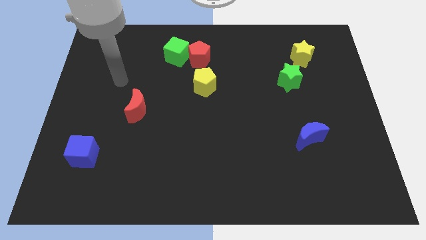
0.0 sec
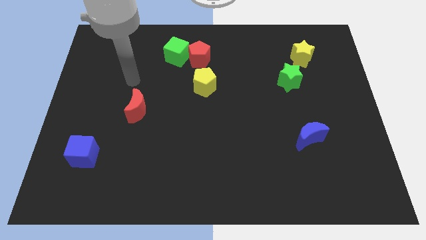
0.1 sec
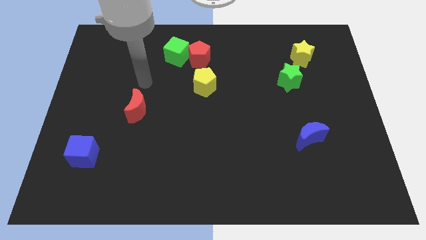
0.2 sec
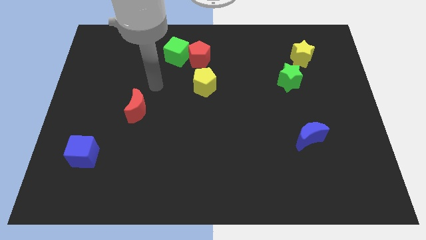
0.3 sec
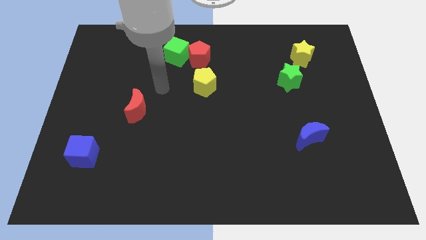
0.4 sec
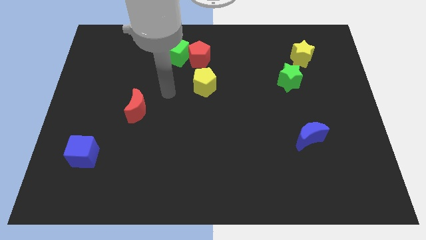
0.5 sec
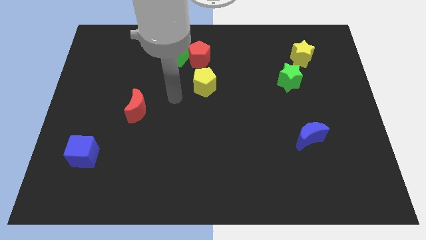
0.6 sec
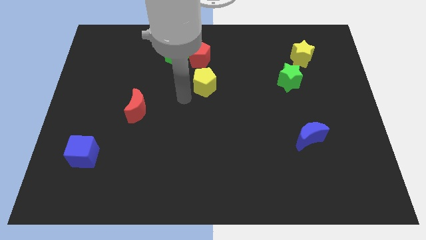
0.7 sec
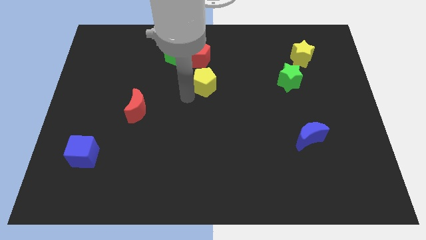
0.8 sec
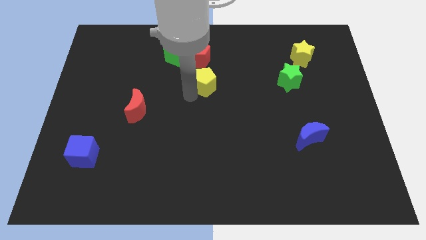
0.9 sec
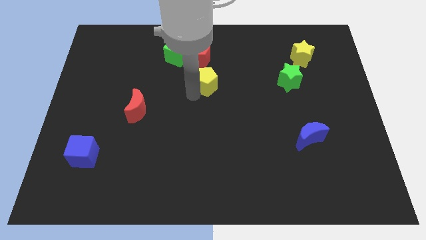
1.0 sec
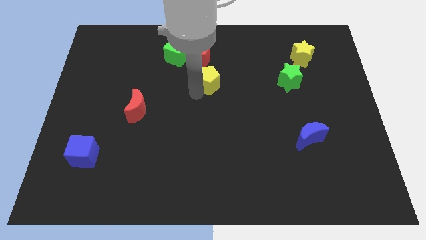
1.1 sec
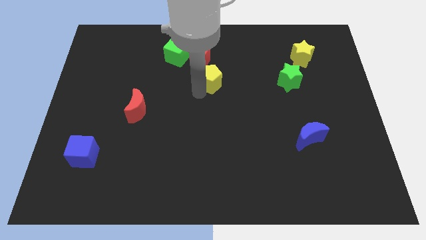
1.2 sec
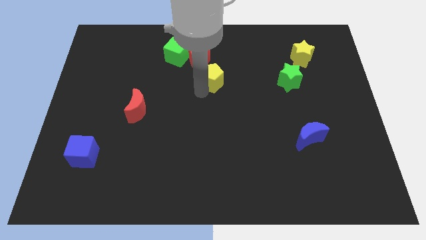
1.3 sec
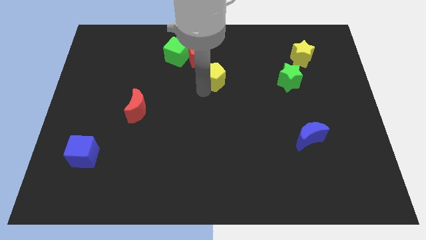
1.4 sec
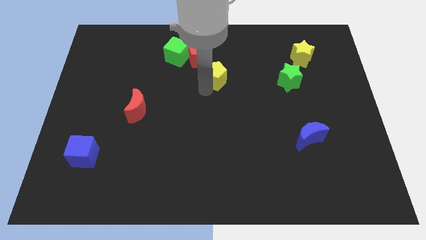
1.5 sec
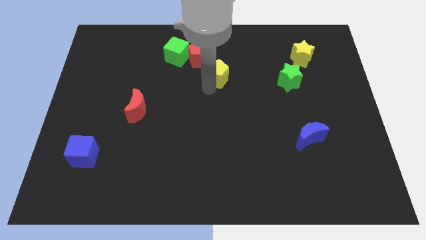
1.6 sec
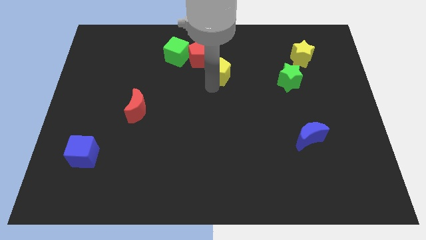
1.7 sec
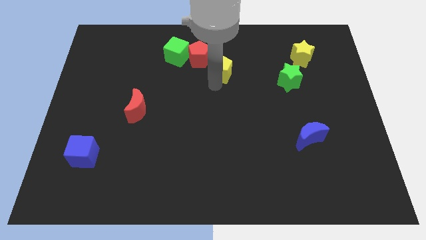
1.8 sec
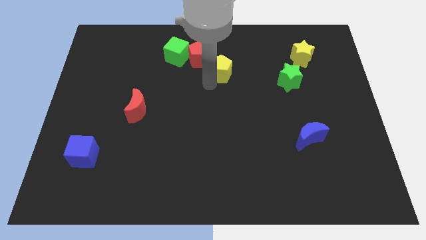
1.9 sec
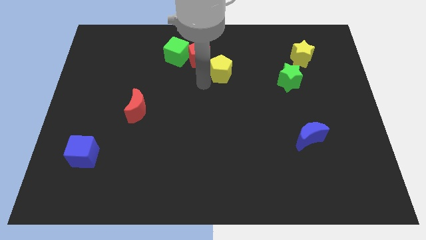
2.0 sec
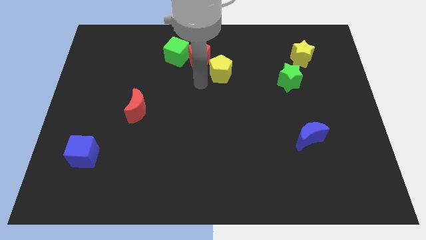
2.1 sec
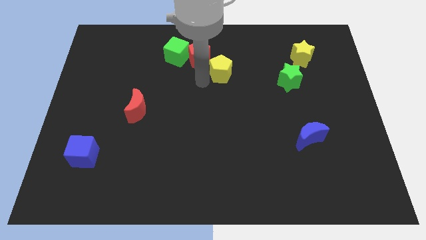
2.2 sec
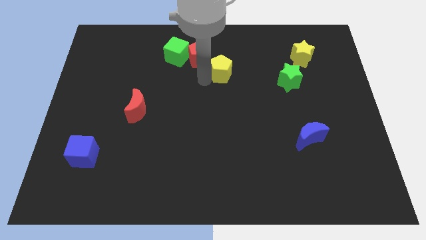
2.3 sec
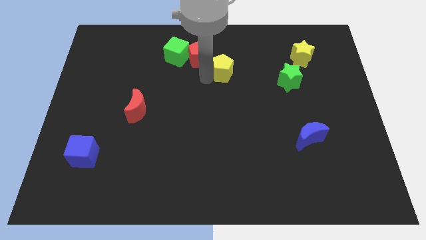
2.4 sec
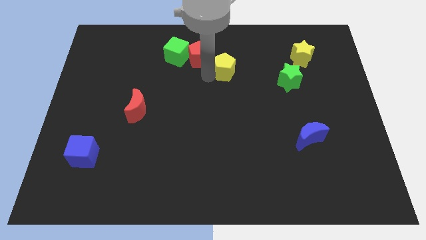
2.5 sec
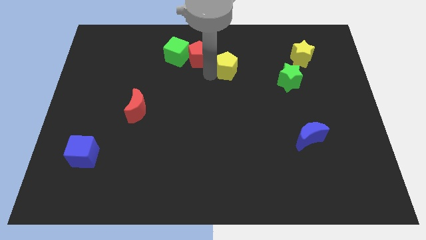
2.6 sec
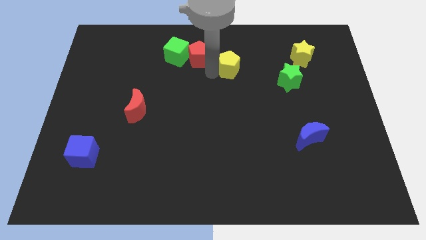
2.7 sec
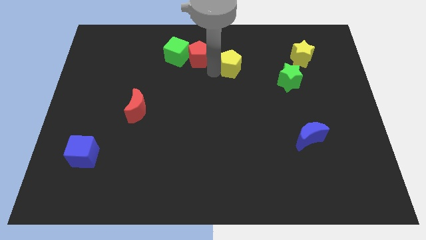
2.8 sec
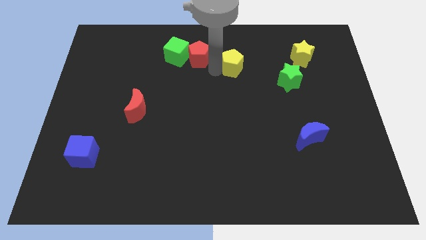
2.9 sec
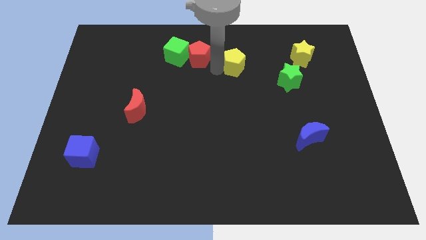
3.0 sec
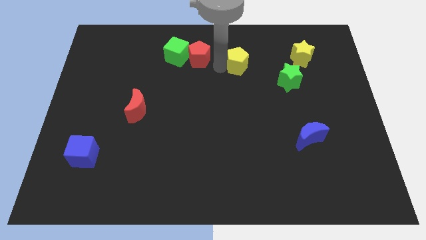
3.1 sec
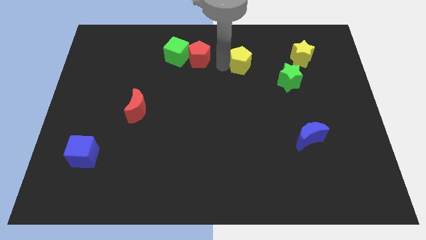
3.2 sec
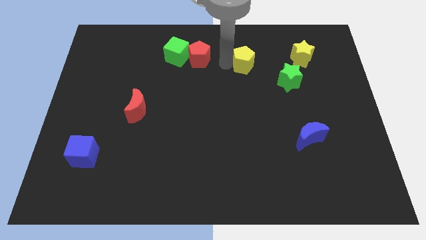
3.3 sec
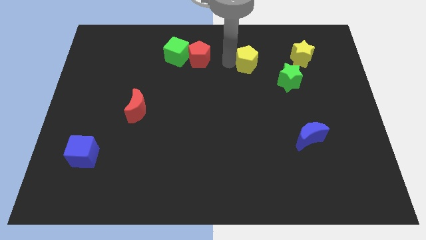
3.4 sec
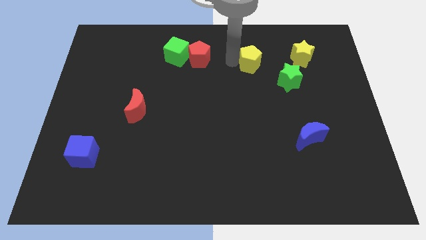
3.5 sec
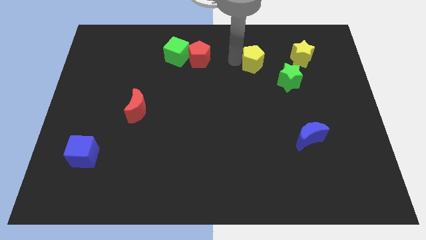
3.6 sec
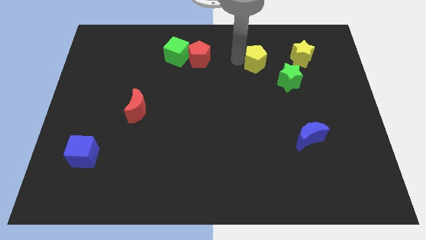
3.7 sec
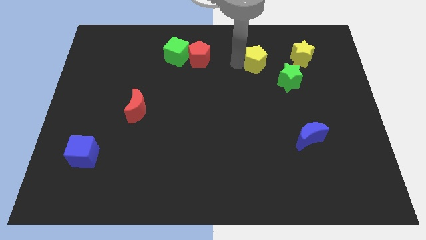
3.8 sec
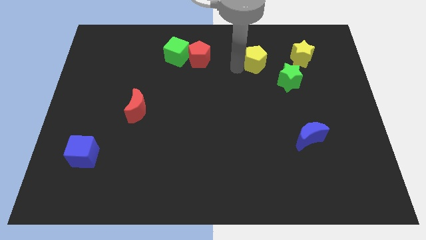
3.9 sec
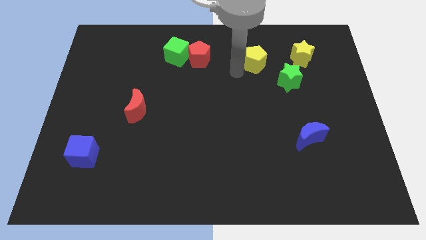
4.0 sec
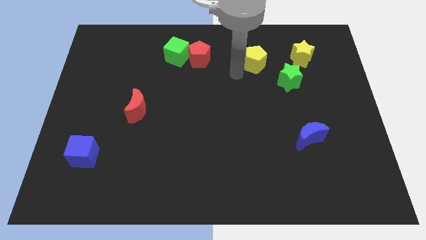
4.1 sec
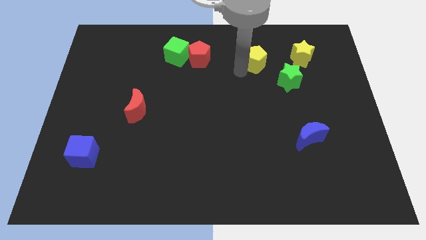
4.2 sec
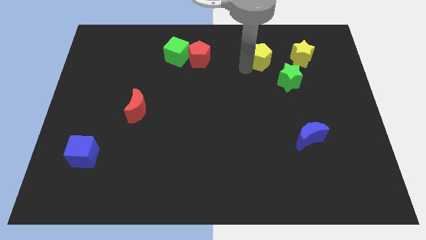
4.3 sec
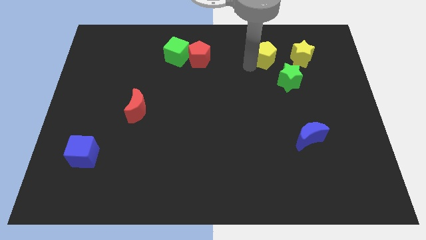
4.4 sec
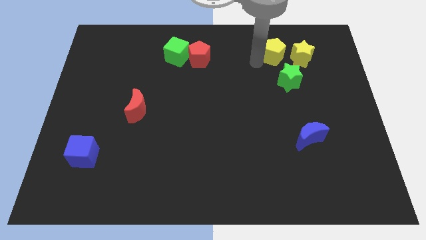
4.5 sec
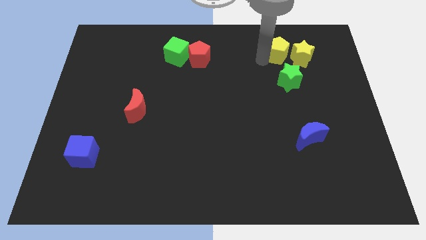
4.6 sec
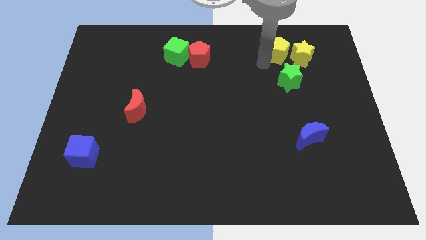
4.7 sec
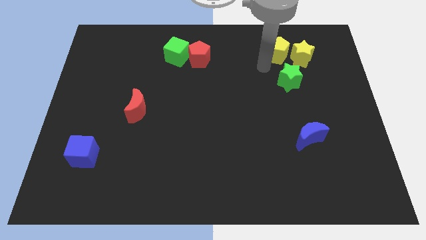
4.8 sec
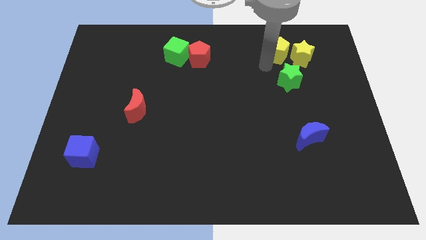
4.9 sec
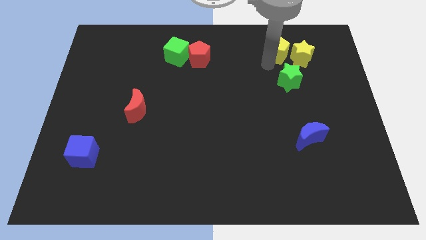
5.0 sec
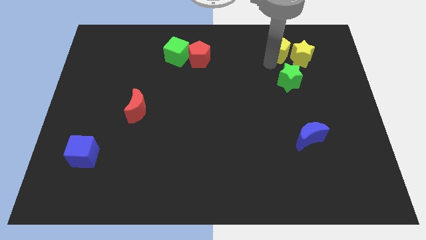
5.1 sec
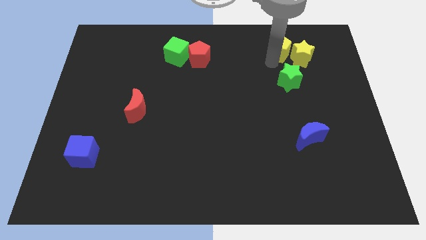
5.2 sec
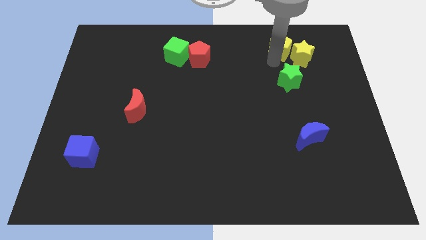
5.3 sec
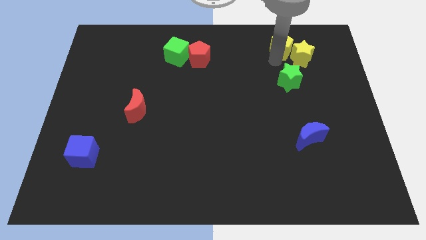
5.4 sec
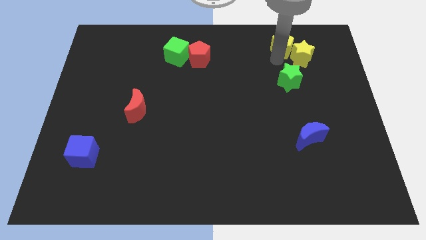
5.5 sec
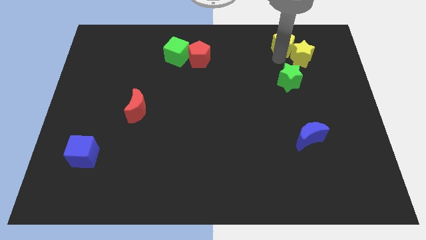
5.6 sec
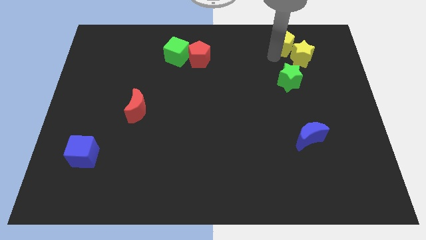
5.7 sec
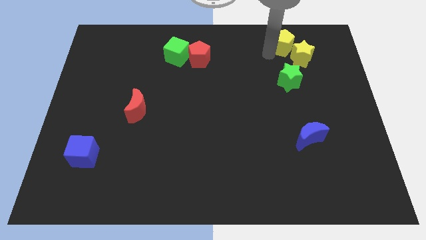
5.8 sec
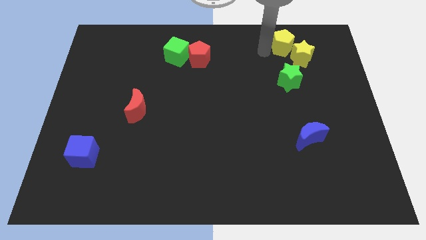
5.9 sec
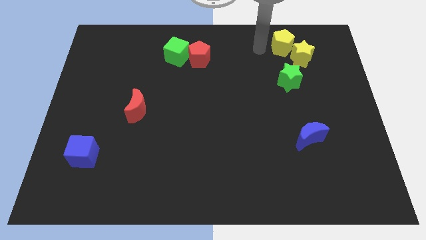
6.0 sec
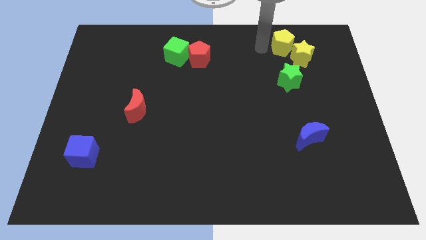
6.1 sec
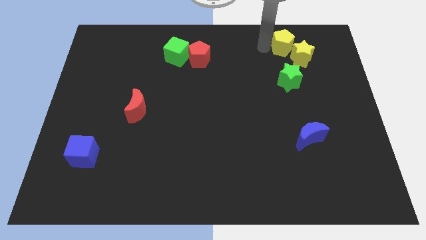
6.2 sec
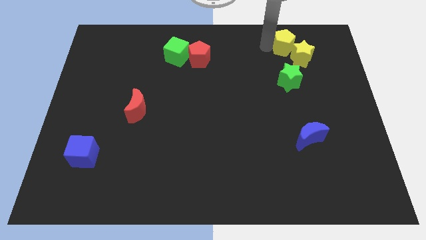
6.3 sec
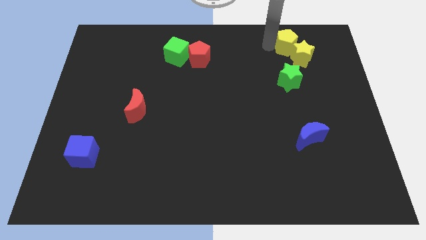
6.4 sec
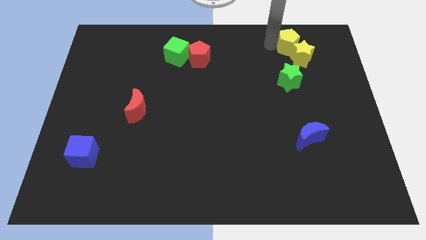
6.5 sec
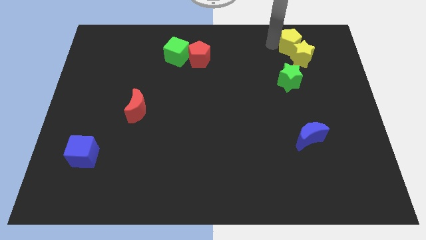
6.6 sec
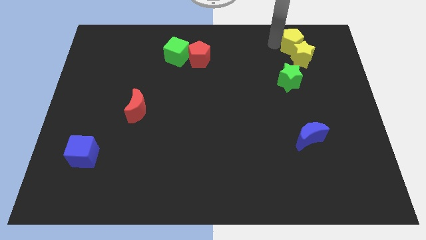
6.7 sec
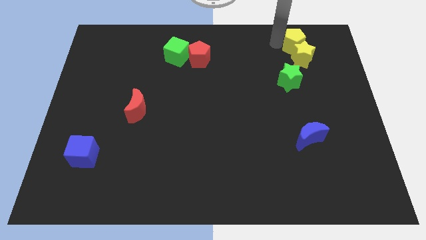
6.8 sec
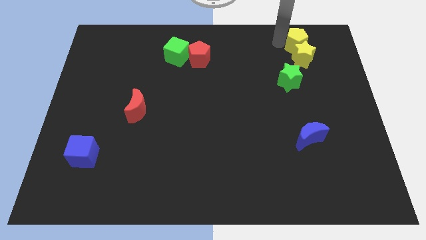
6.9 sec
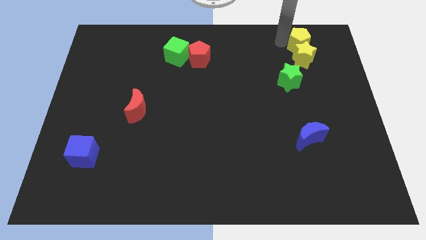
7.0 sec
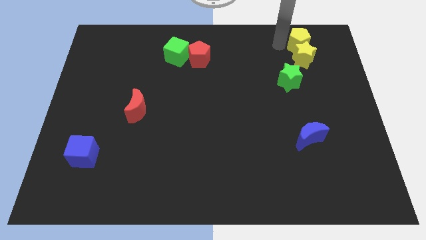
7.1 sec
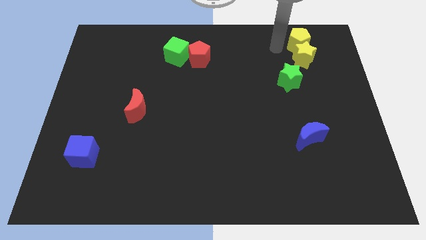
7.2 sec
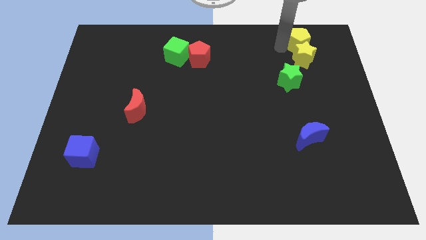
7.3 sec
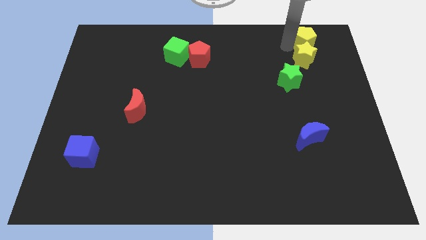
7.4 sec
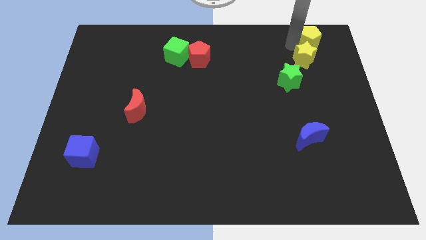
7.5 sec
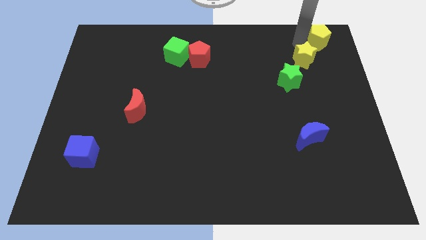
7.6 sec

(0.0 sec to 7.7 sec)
push the yellow pentagon to the upper right corner
